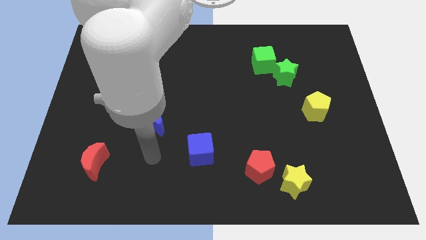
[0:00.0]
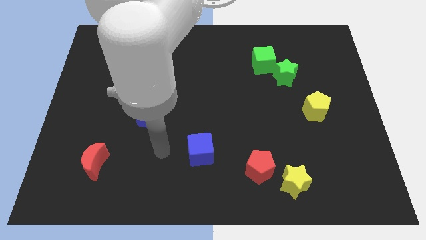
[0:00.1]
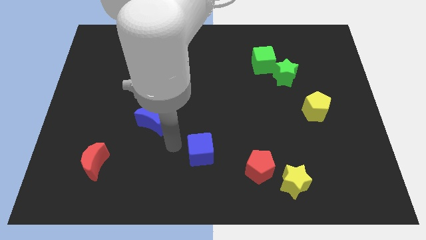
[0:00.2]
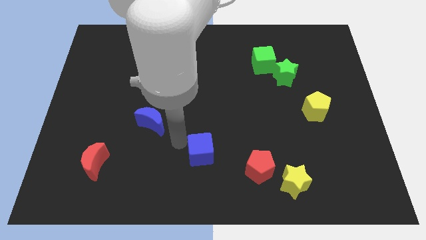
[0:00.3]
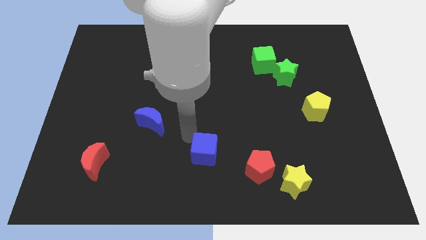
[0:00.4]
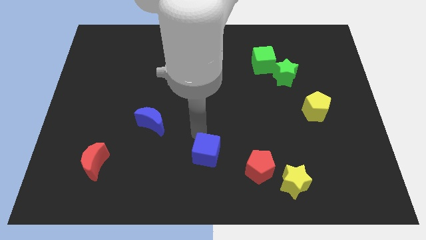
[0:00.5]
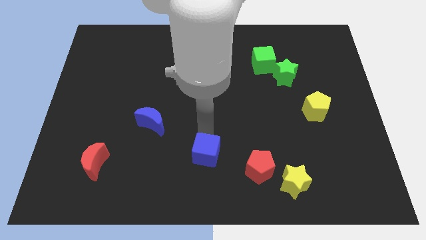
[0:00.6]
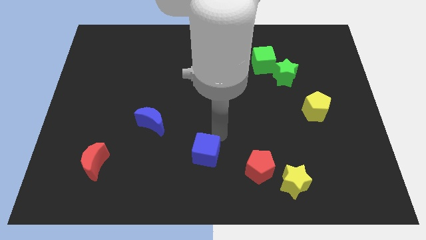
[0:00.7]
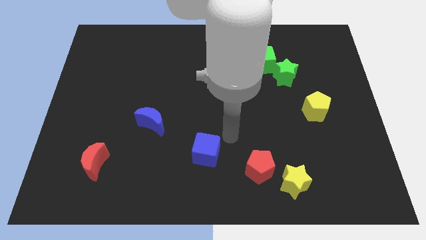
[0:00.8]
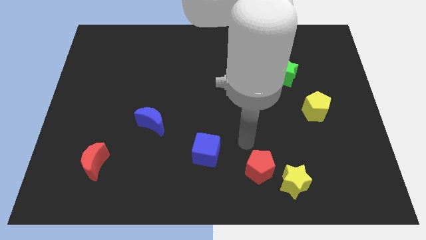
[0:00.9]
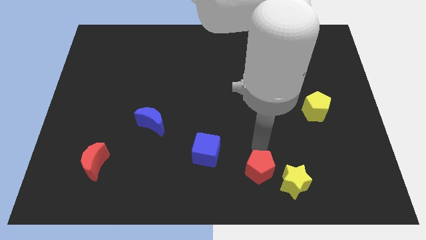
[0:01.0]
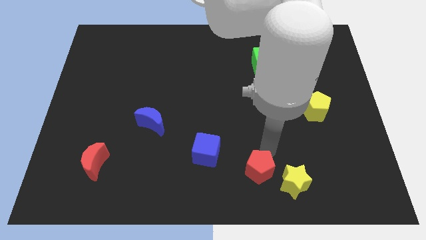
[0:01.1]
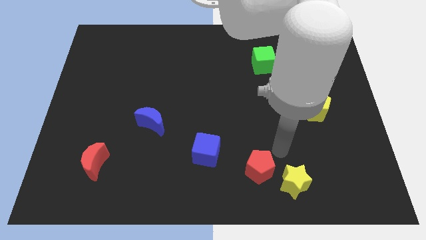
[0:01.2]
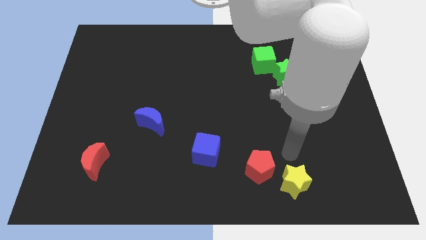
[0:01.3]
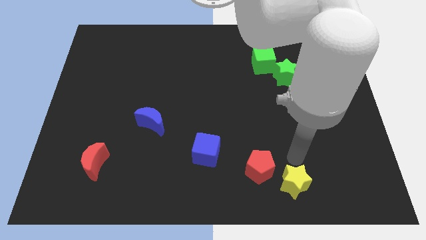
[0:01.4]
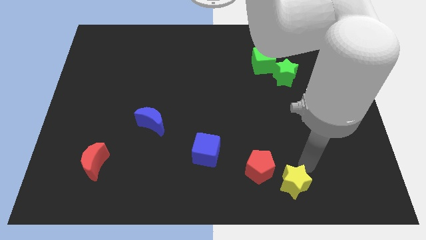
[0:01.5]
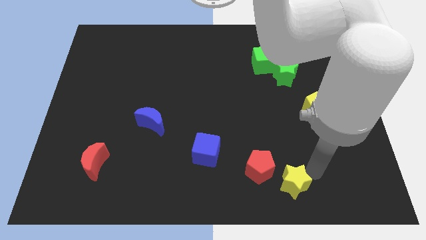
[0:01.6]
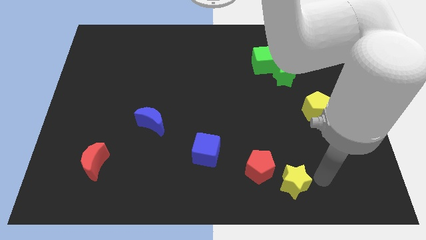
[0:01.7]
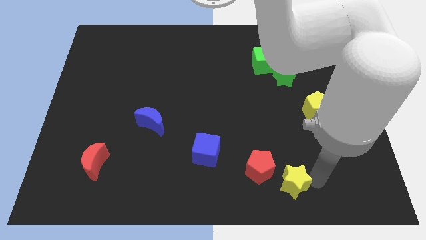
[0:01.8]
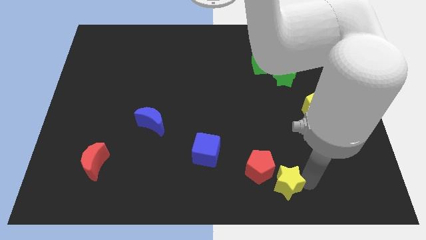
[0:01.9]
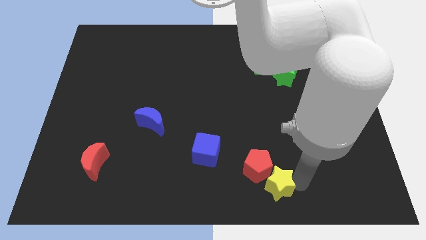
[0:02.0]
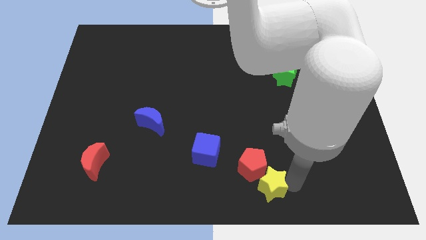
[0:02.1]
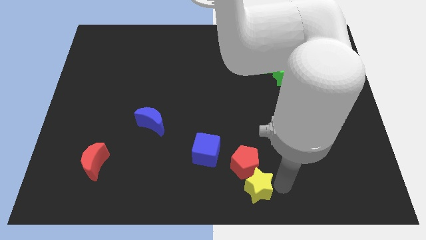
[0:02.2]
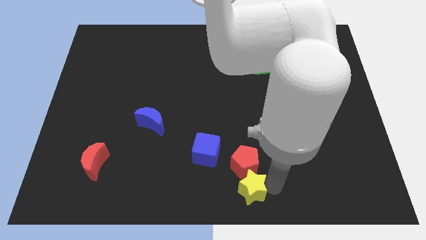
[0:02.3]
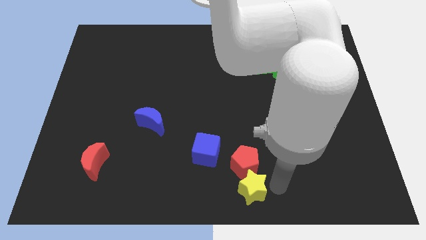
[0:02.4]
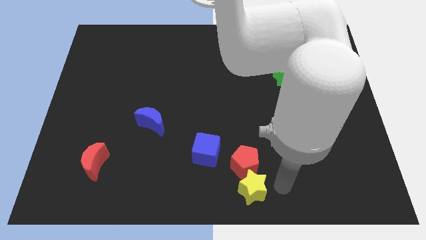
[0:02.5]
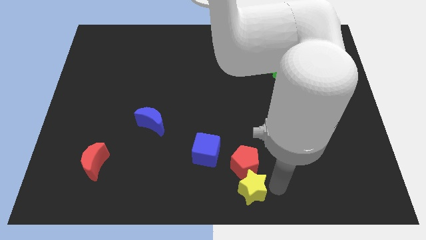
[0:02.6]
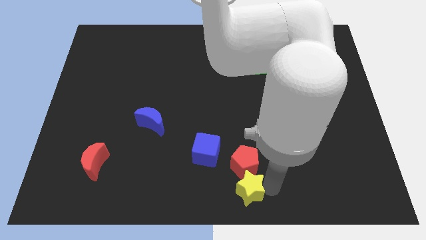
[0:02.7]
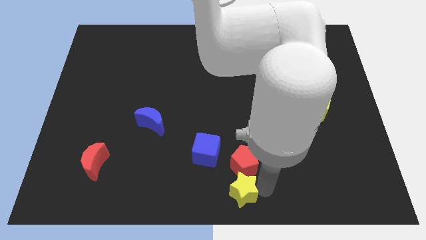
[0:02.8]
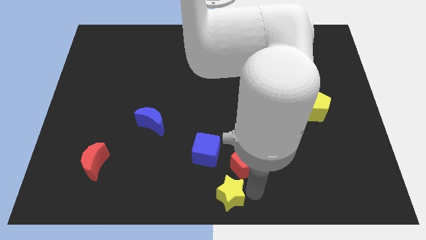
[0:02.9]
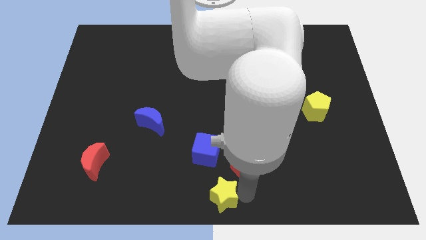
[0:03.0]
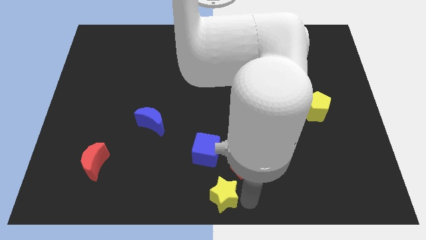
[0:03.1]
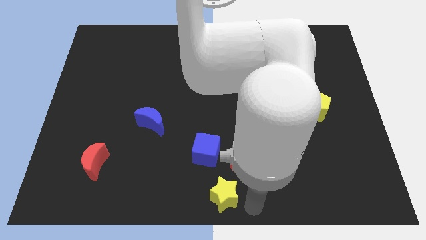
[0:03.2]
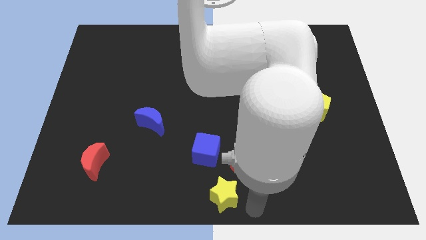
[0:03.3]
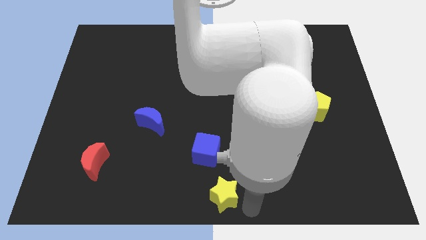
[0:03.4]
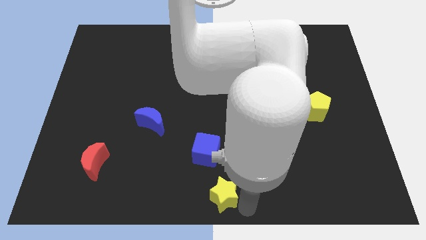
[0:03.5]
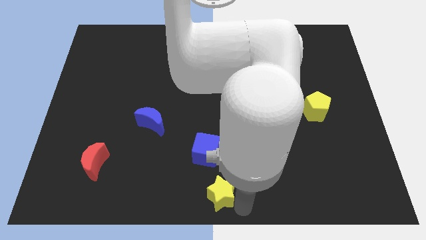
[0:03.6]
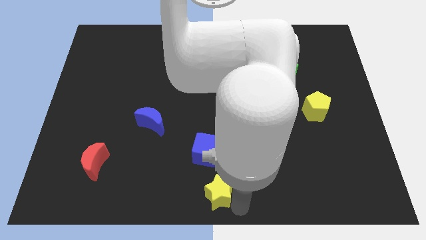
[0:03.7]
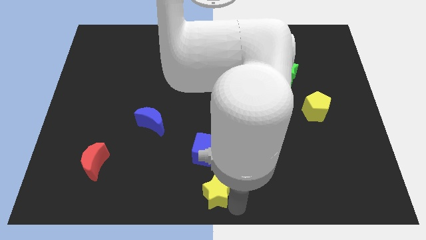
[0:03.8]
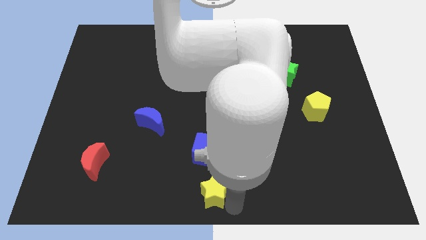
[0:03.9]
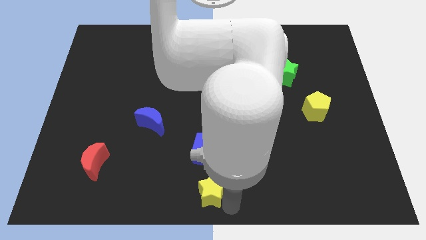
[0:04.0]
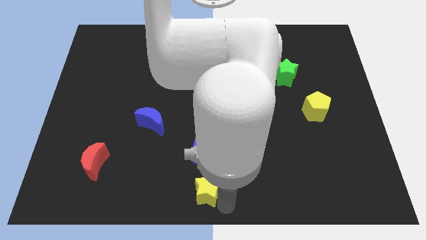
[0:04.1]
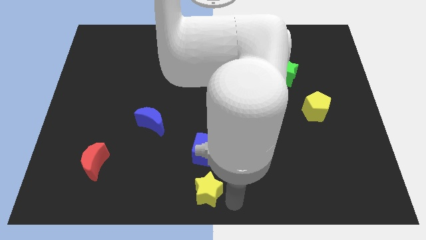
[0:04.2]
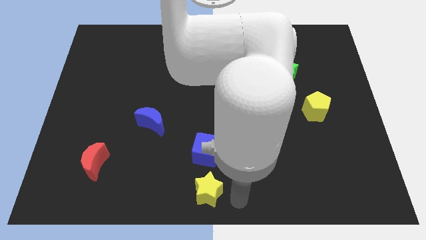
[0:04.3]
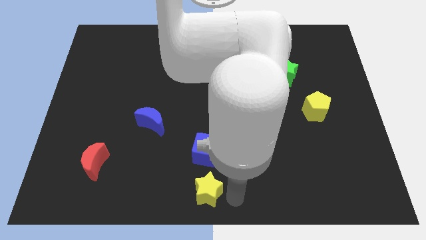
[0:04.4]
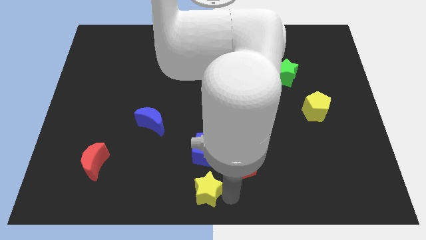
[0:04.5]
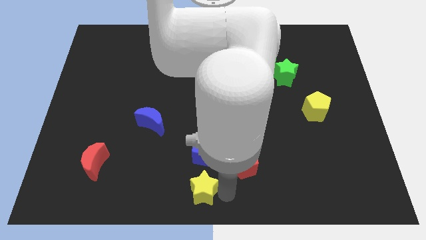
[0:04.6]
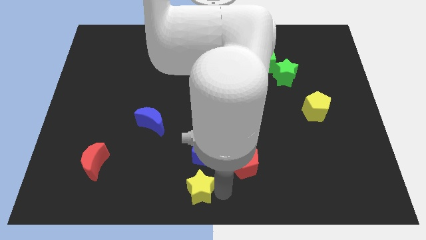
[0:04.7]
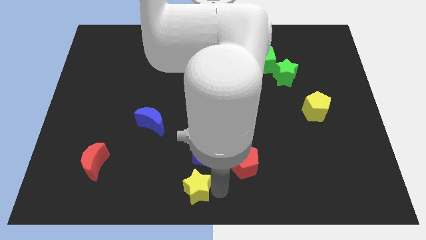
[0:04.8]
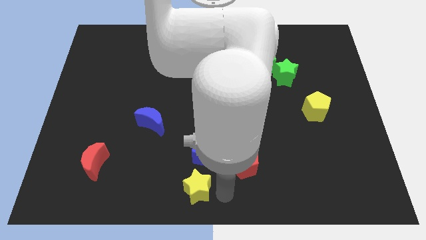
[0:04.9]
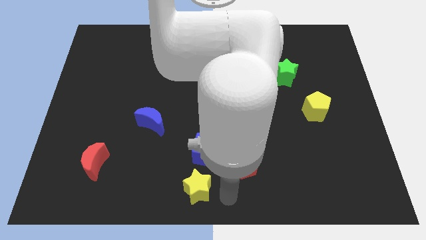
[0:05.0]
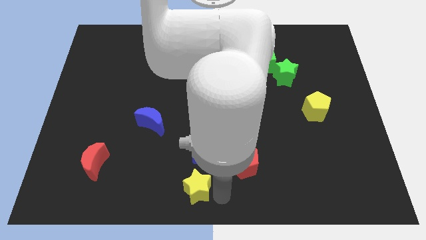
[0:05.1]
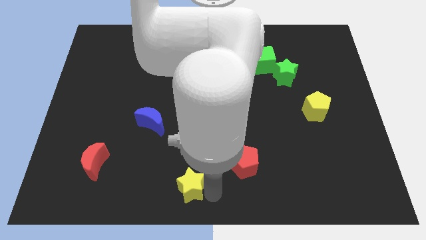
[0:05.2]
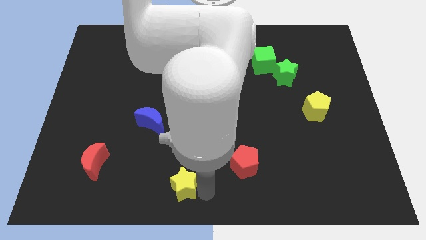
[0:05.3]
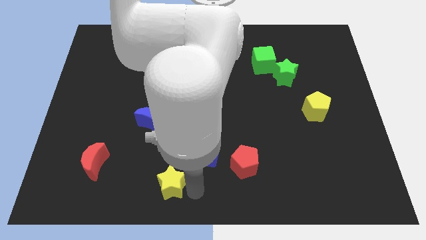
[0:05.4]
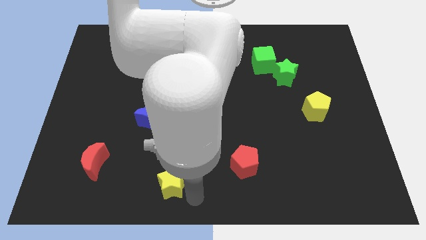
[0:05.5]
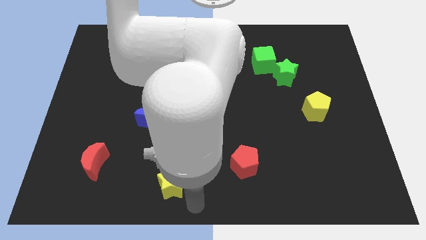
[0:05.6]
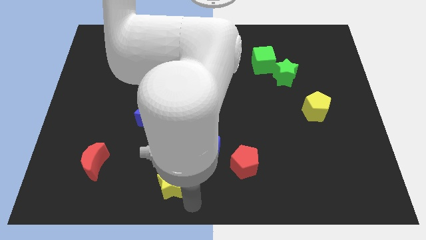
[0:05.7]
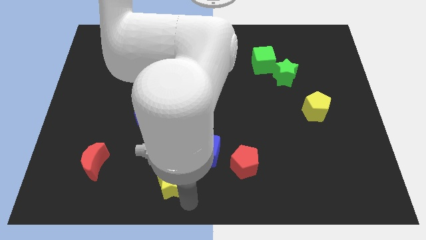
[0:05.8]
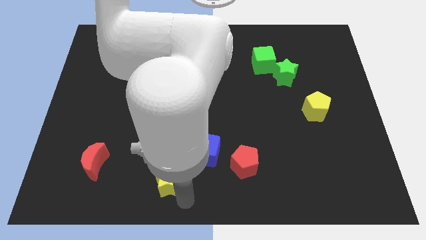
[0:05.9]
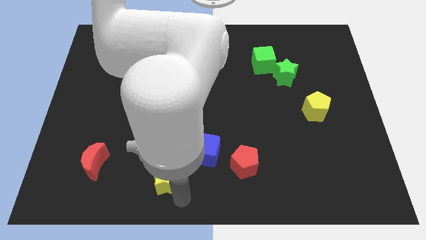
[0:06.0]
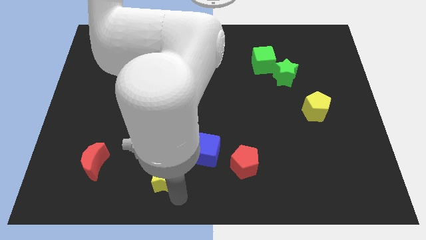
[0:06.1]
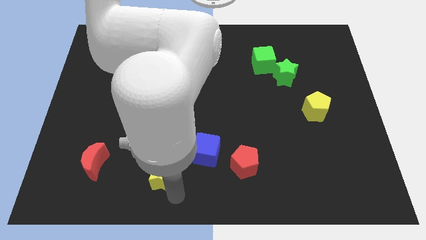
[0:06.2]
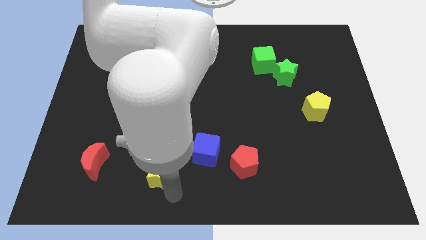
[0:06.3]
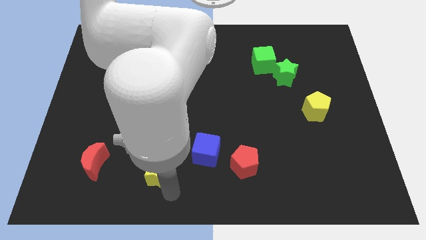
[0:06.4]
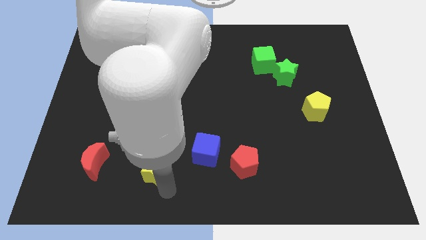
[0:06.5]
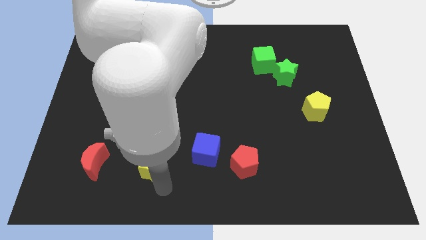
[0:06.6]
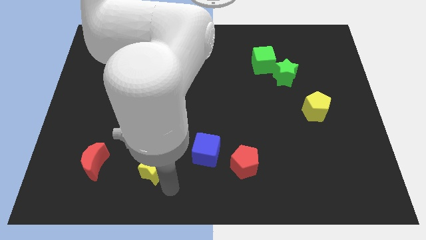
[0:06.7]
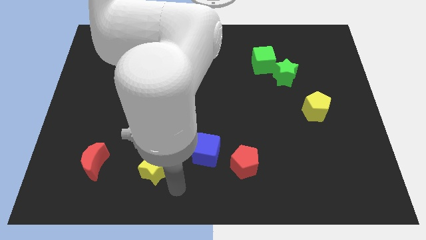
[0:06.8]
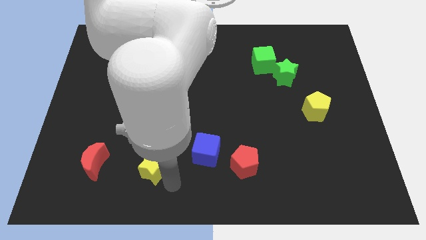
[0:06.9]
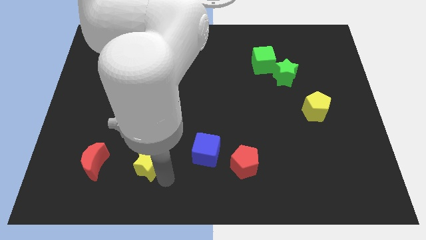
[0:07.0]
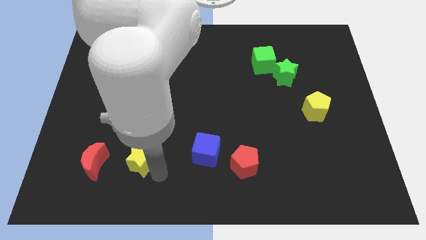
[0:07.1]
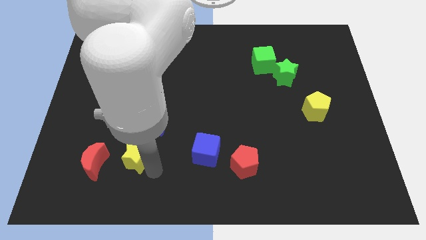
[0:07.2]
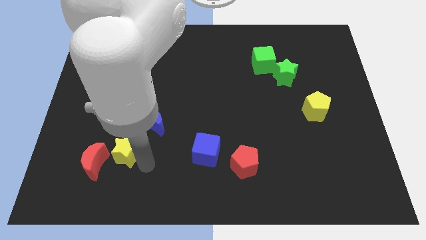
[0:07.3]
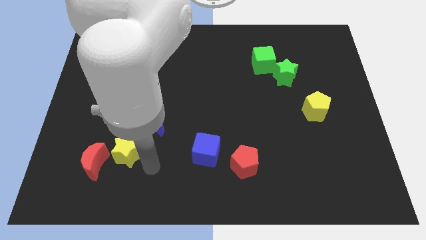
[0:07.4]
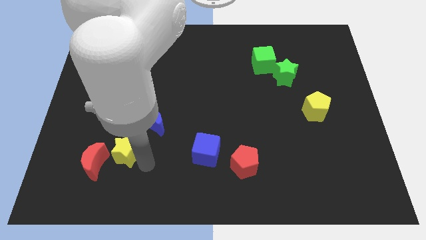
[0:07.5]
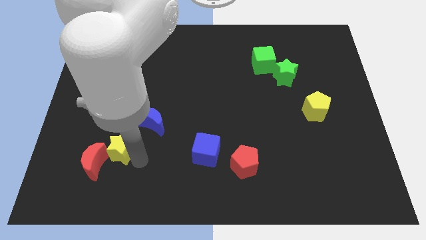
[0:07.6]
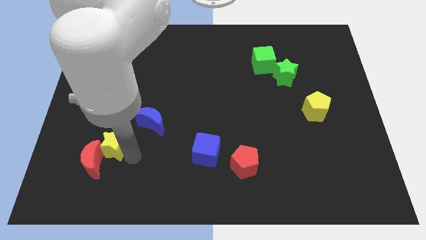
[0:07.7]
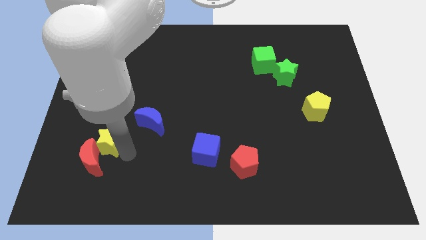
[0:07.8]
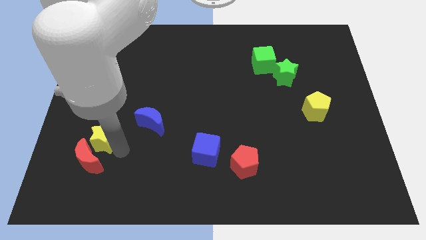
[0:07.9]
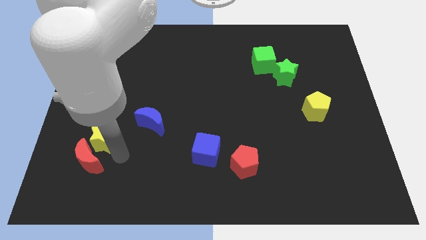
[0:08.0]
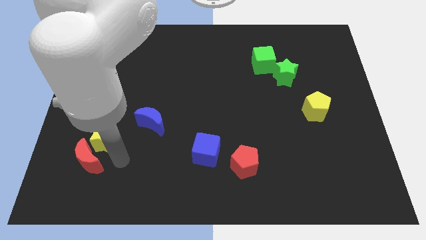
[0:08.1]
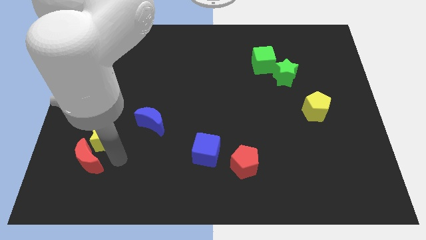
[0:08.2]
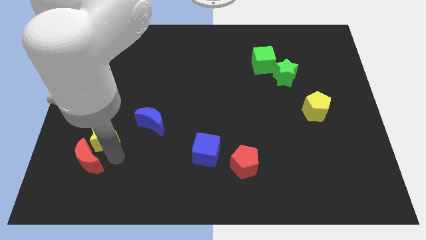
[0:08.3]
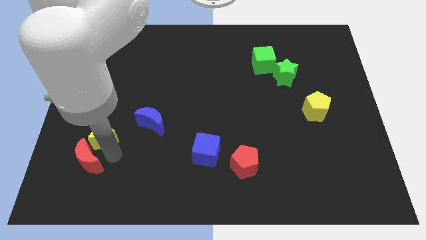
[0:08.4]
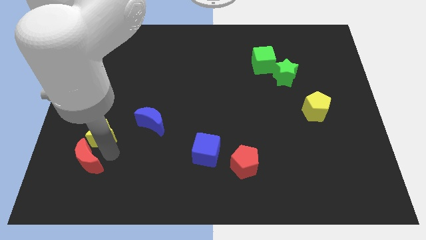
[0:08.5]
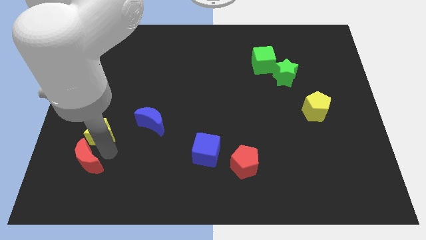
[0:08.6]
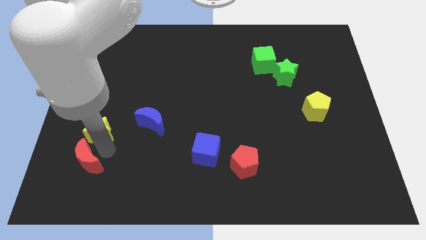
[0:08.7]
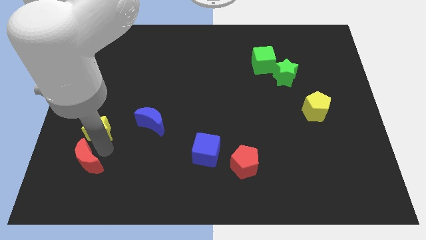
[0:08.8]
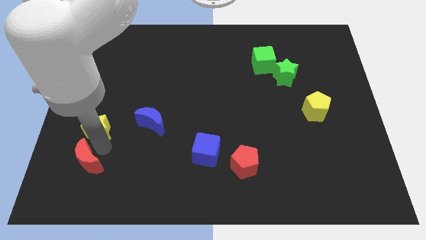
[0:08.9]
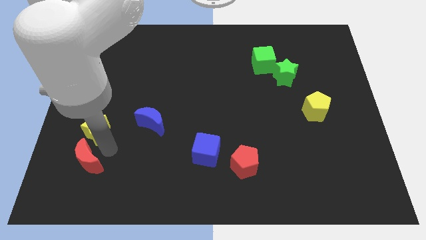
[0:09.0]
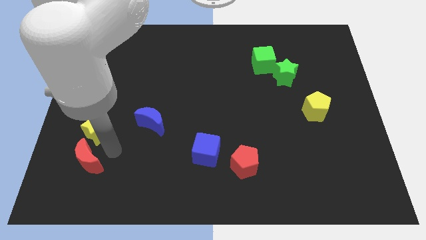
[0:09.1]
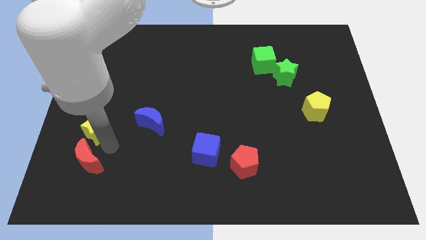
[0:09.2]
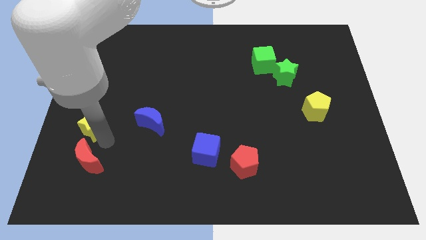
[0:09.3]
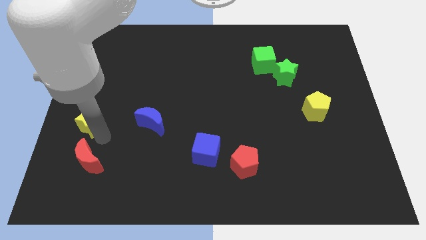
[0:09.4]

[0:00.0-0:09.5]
slide the yellow star to the left side of the board
